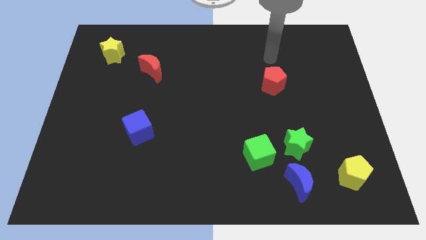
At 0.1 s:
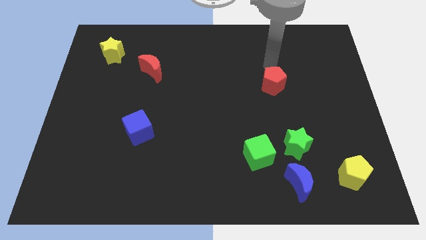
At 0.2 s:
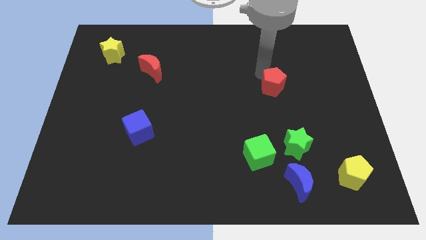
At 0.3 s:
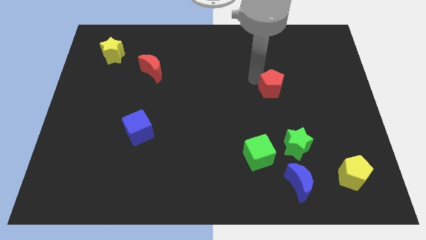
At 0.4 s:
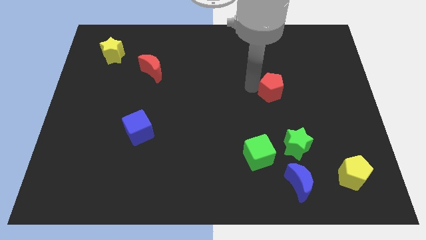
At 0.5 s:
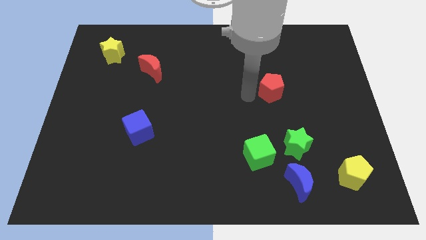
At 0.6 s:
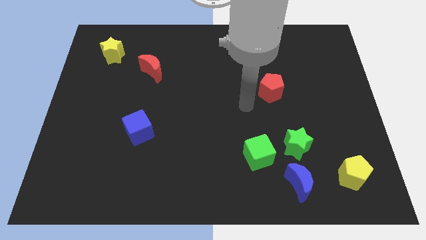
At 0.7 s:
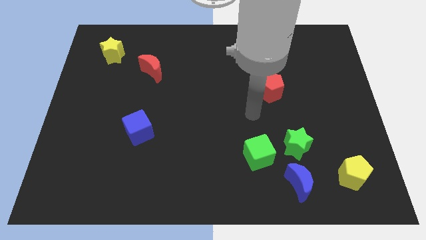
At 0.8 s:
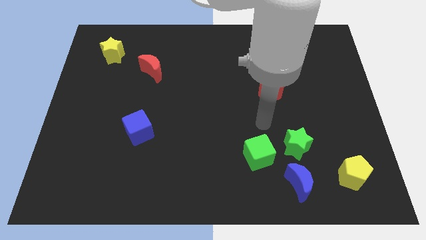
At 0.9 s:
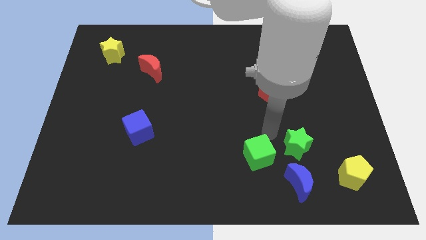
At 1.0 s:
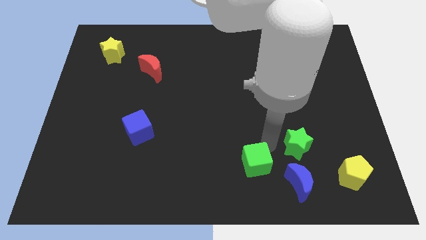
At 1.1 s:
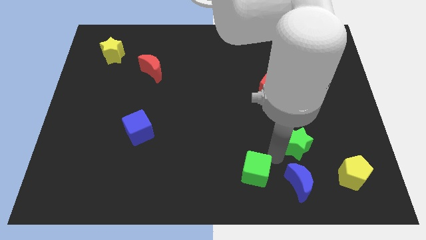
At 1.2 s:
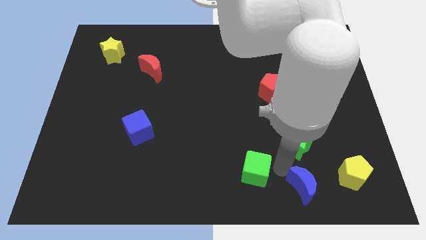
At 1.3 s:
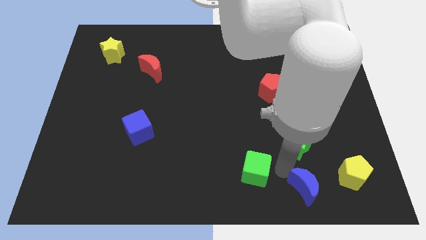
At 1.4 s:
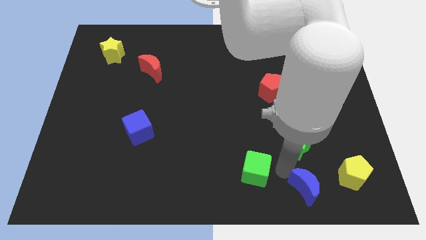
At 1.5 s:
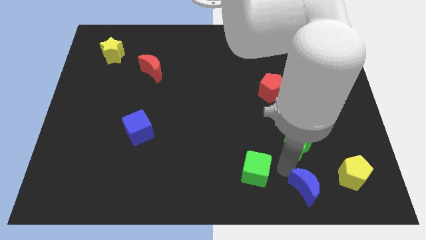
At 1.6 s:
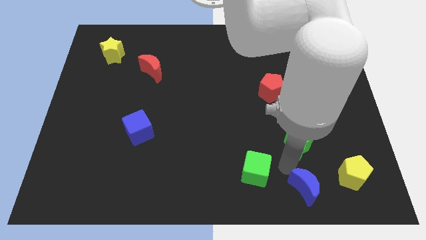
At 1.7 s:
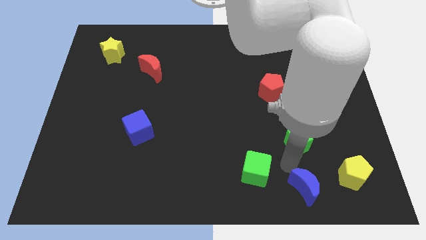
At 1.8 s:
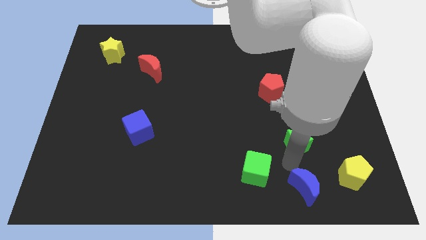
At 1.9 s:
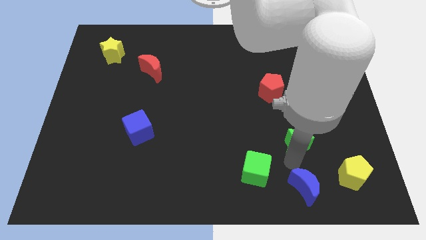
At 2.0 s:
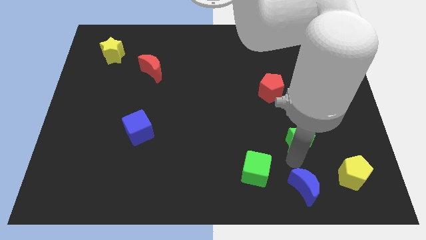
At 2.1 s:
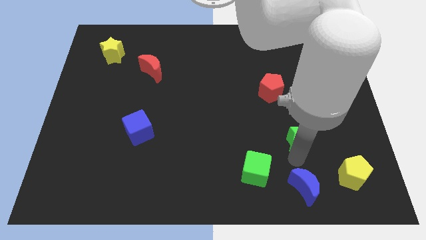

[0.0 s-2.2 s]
pull the green star apart from the green cube and blue moon

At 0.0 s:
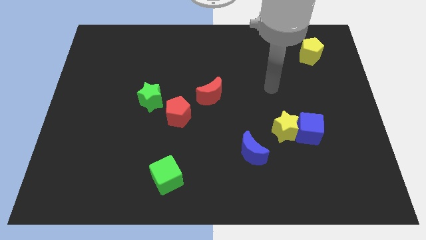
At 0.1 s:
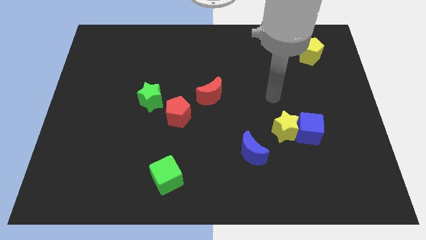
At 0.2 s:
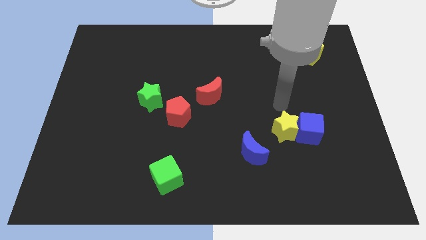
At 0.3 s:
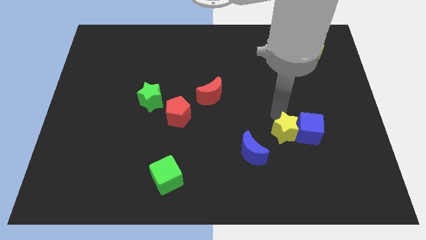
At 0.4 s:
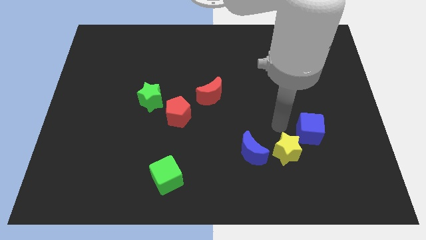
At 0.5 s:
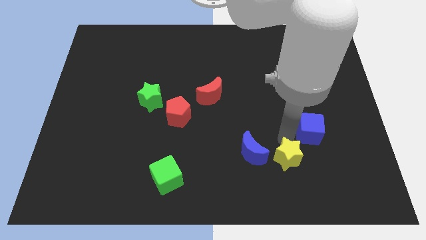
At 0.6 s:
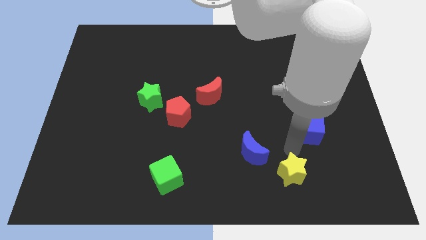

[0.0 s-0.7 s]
move the blue cube away from the yellow star

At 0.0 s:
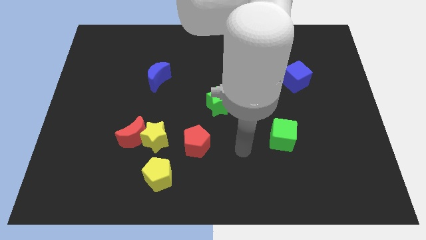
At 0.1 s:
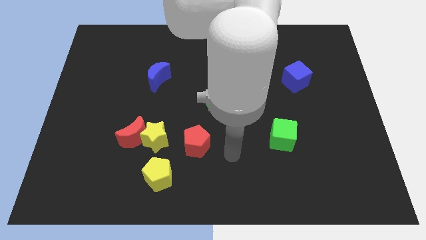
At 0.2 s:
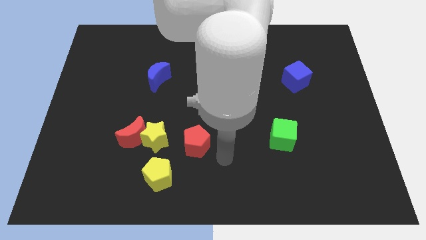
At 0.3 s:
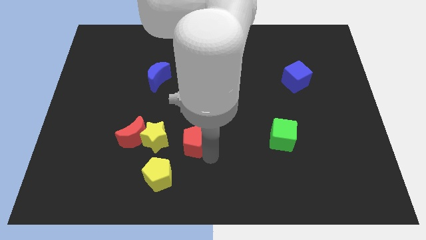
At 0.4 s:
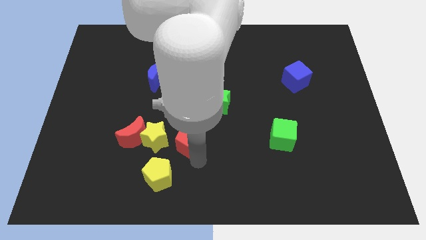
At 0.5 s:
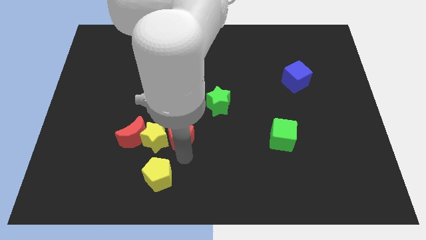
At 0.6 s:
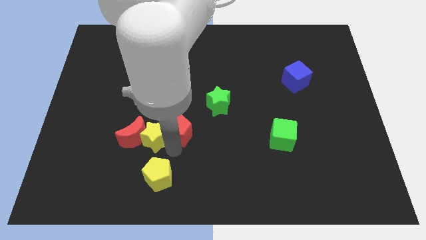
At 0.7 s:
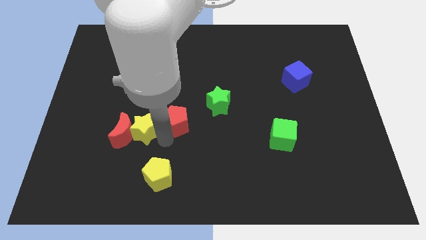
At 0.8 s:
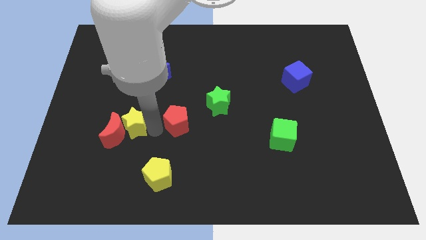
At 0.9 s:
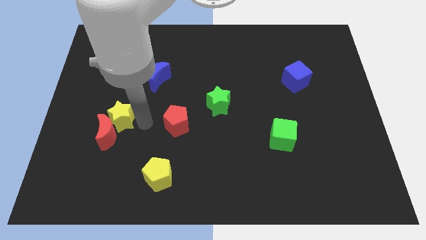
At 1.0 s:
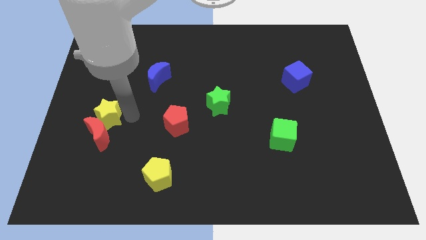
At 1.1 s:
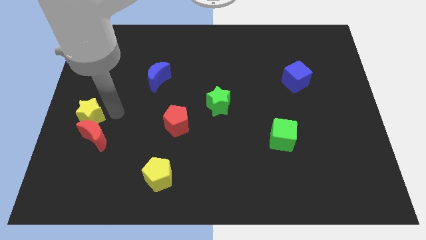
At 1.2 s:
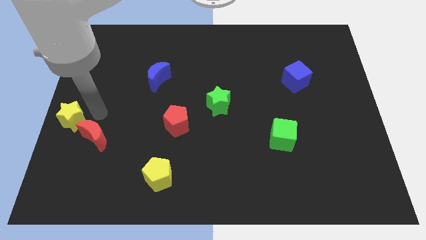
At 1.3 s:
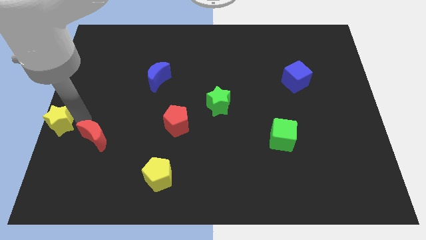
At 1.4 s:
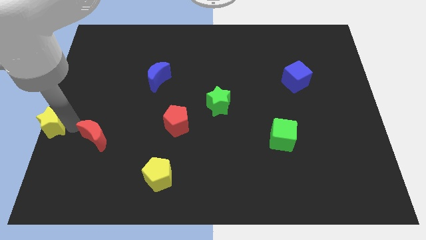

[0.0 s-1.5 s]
pull the red moon apart from the yellow star

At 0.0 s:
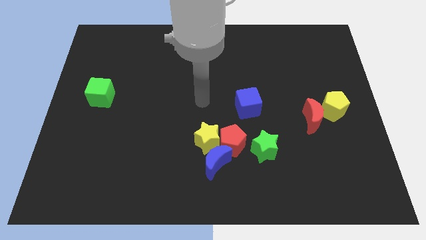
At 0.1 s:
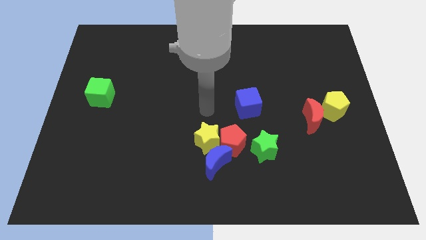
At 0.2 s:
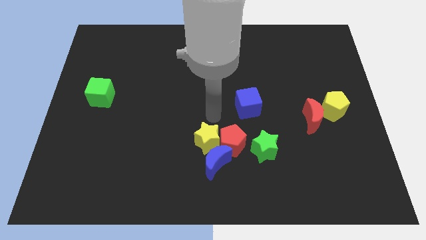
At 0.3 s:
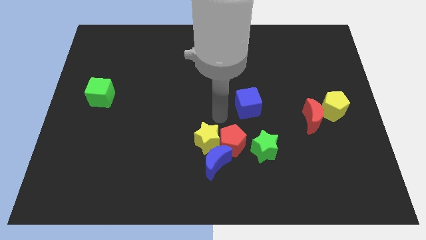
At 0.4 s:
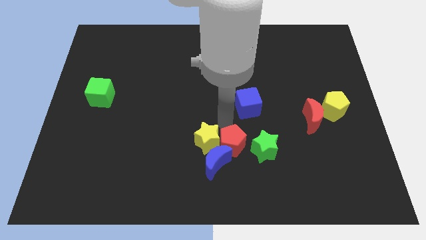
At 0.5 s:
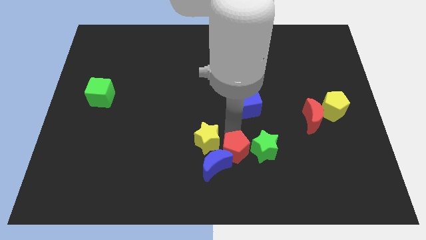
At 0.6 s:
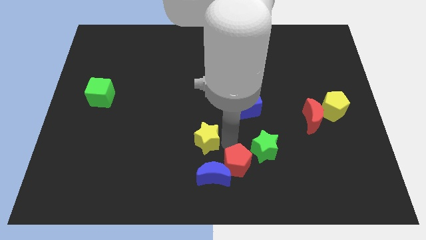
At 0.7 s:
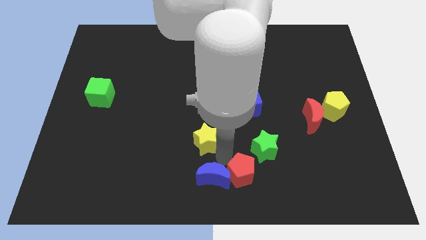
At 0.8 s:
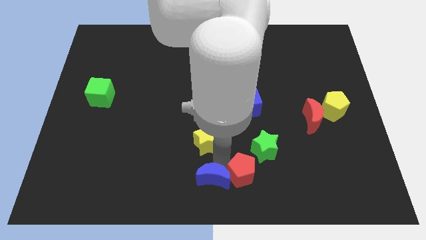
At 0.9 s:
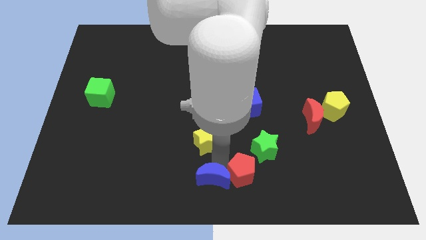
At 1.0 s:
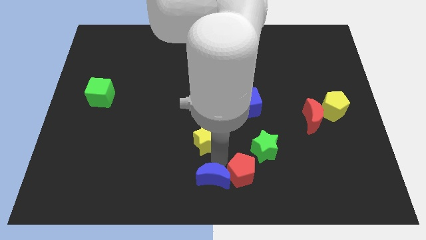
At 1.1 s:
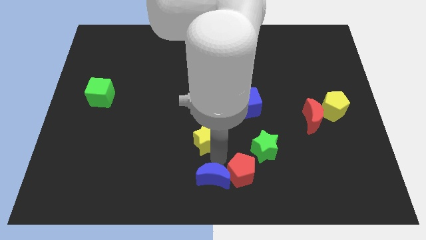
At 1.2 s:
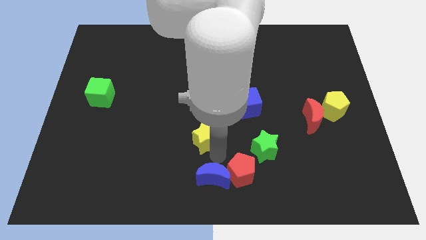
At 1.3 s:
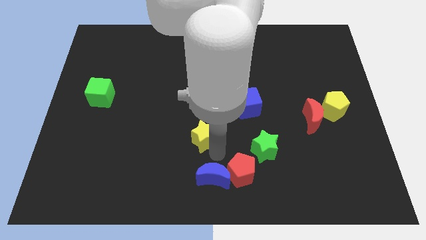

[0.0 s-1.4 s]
pull the yellow star apart from the red pentagon and blue moon

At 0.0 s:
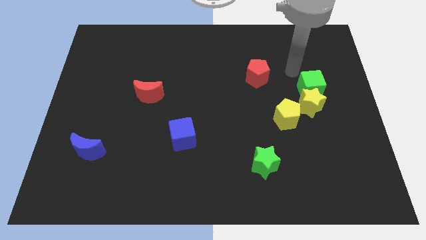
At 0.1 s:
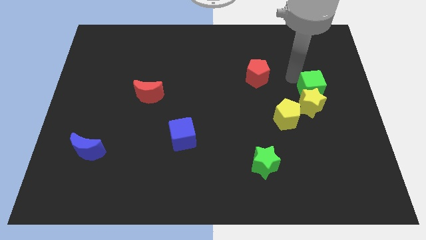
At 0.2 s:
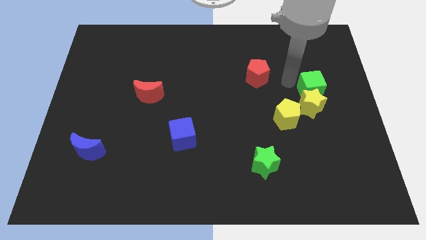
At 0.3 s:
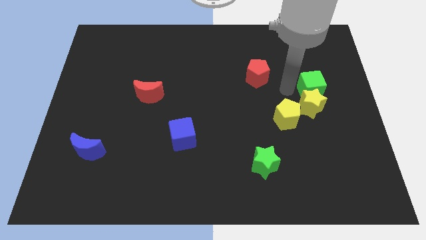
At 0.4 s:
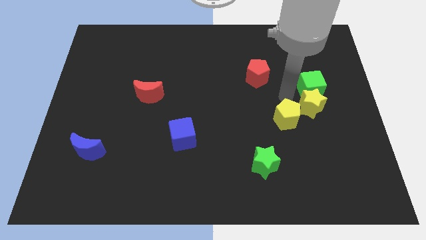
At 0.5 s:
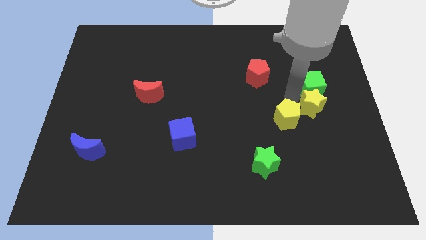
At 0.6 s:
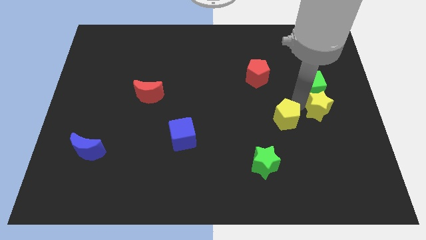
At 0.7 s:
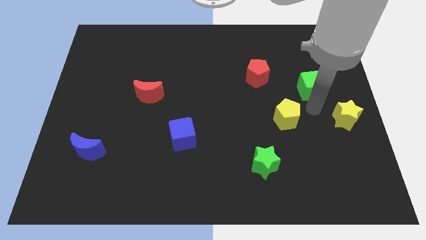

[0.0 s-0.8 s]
move the green cube away from the yellow star

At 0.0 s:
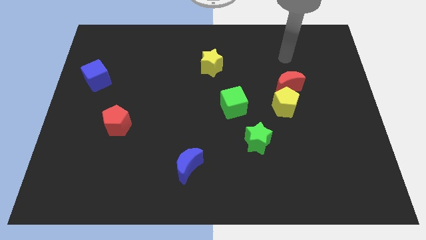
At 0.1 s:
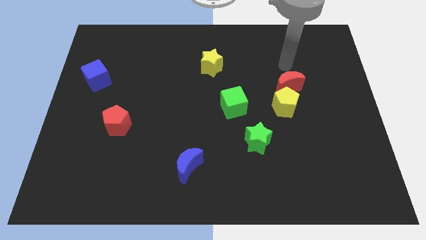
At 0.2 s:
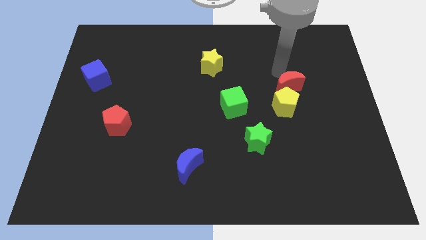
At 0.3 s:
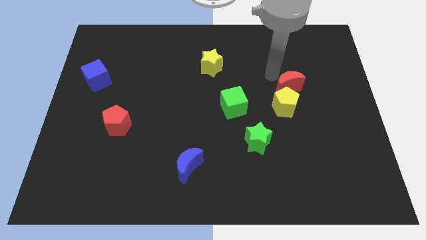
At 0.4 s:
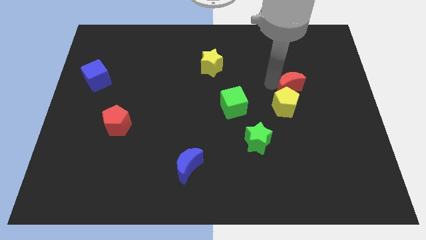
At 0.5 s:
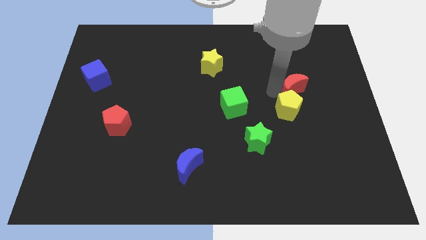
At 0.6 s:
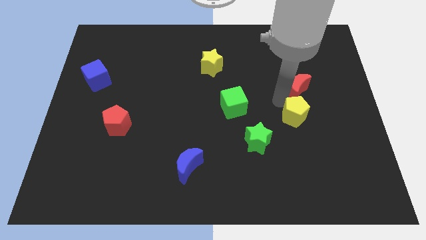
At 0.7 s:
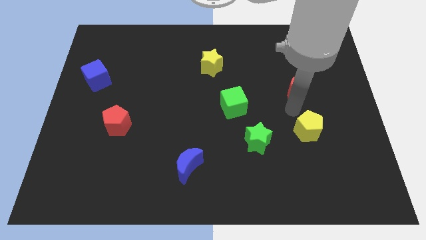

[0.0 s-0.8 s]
pull the red moon apart from the yellow pentagon

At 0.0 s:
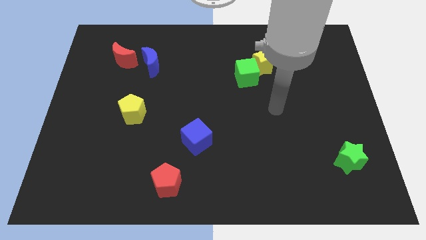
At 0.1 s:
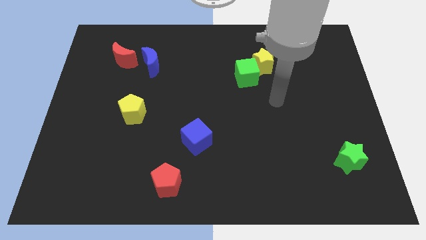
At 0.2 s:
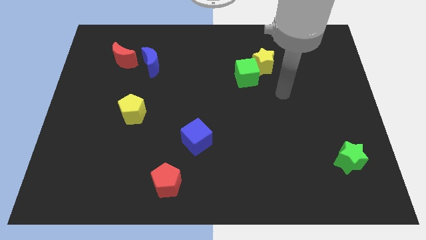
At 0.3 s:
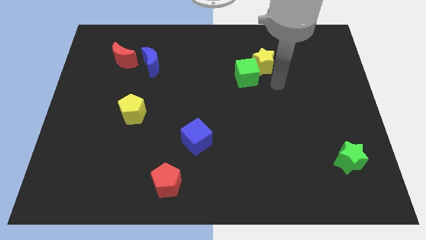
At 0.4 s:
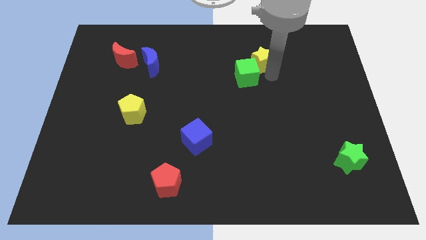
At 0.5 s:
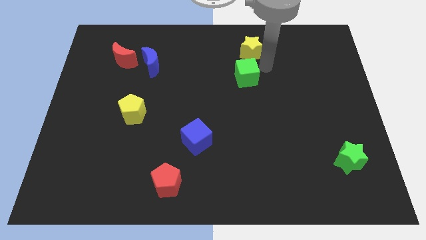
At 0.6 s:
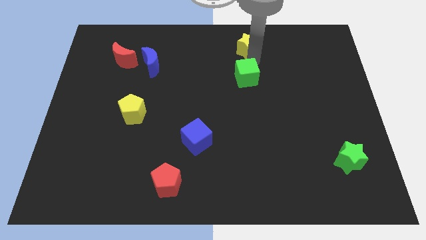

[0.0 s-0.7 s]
separate the green cube from the yellow star

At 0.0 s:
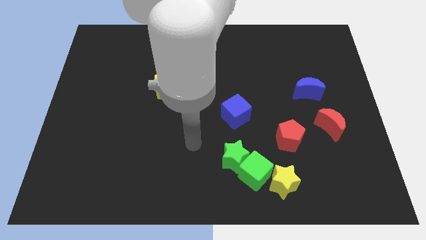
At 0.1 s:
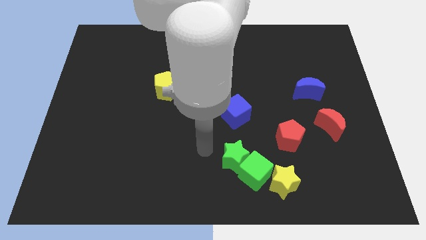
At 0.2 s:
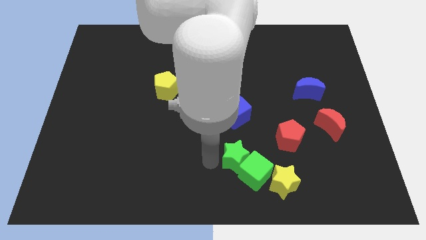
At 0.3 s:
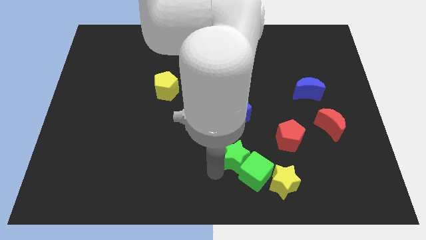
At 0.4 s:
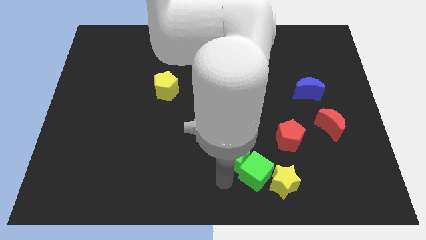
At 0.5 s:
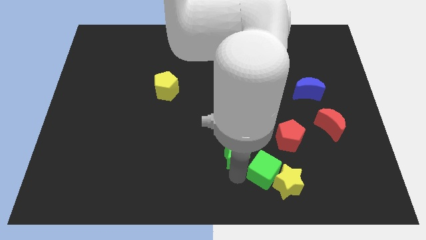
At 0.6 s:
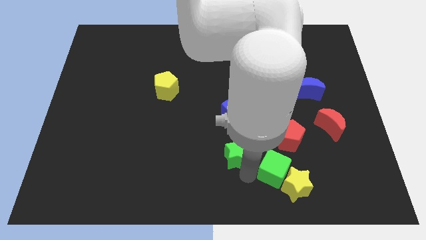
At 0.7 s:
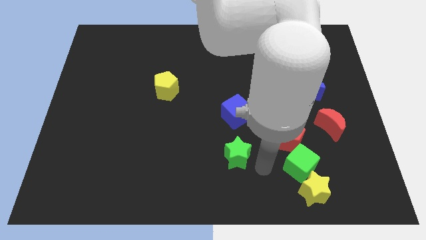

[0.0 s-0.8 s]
move the green star away from the green cube

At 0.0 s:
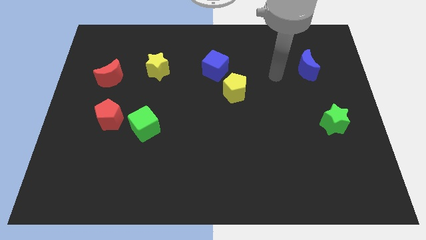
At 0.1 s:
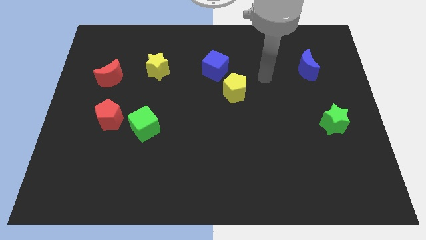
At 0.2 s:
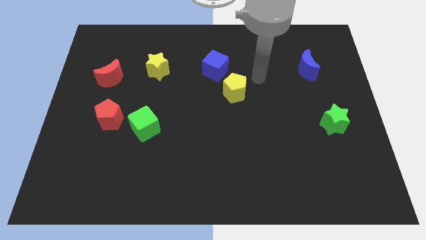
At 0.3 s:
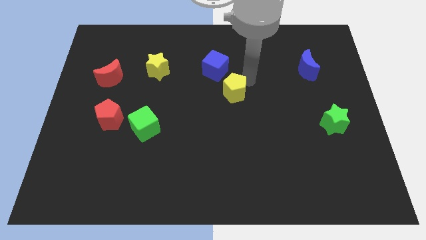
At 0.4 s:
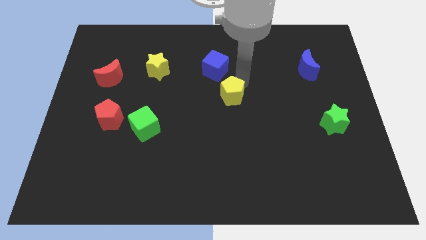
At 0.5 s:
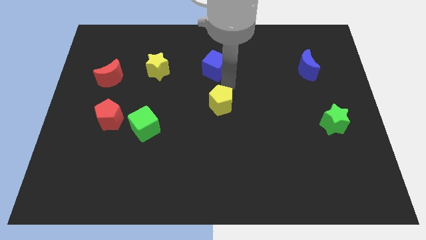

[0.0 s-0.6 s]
move the blue cube away from the yellow pentagon
